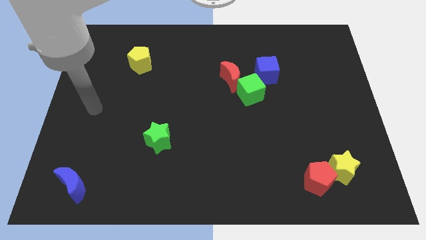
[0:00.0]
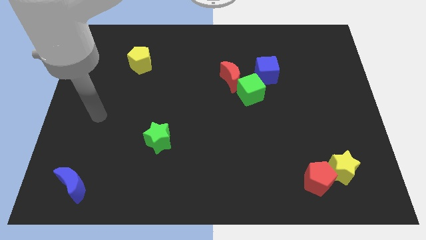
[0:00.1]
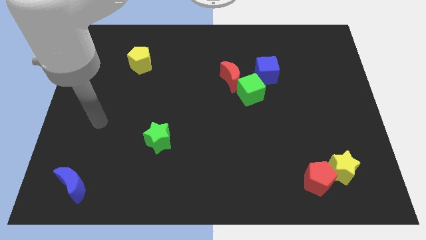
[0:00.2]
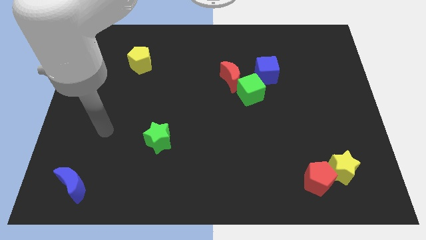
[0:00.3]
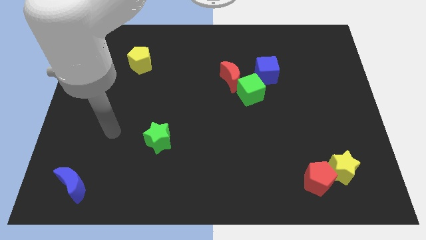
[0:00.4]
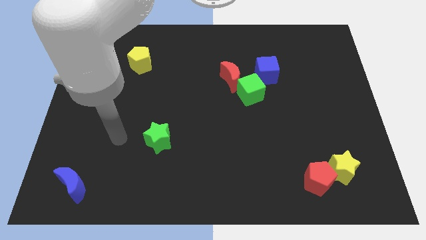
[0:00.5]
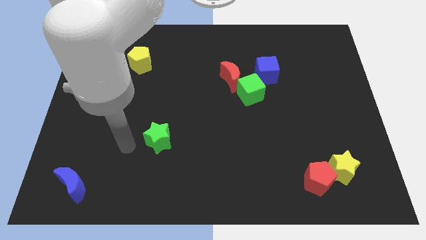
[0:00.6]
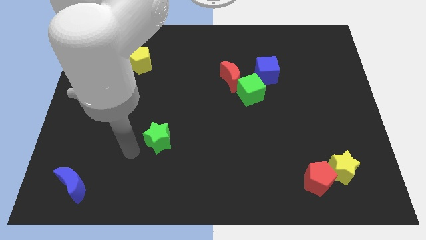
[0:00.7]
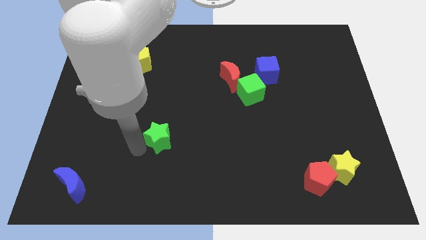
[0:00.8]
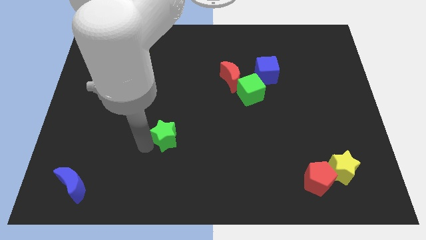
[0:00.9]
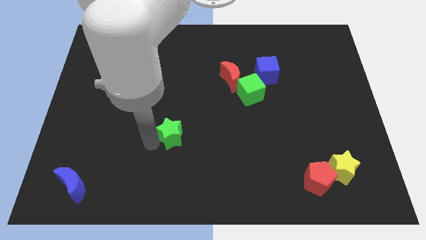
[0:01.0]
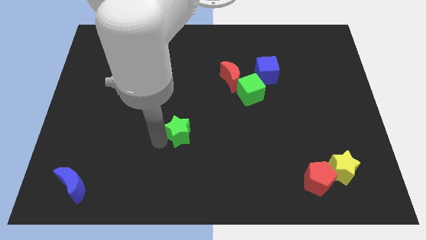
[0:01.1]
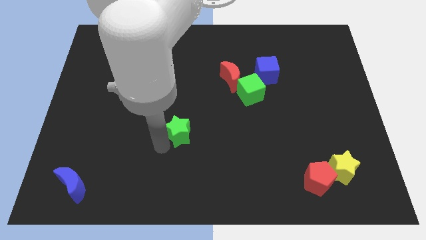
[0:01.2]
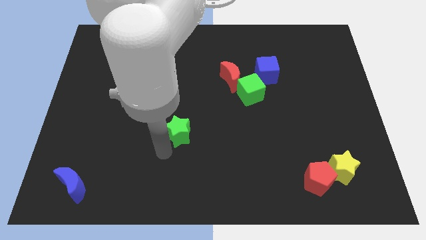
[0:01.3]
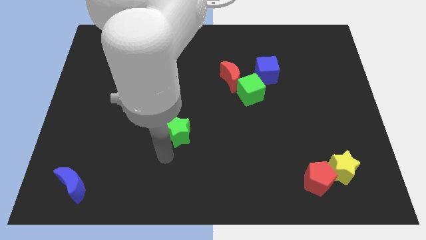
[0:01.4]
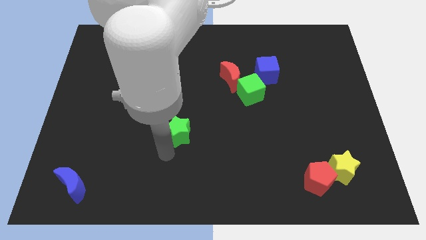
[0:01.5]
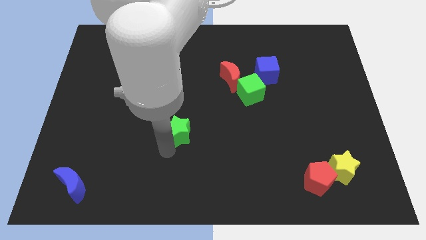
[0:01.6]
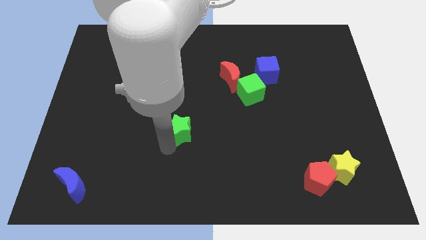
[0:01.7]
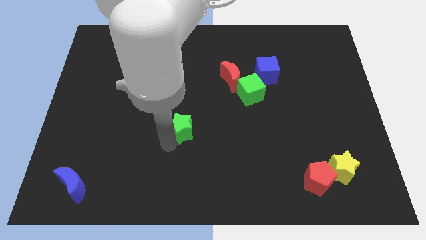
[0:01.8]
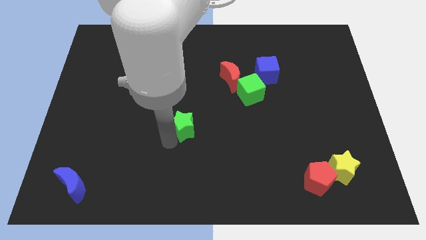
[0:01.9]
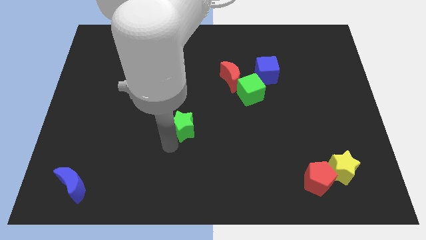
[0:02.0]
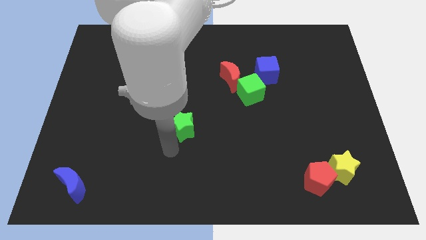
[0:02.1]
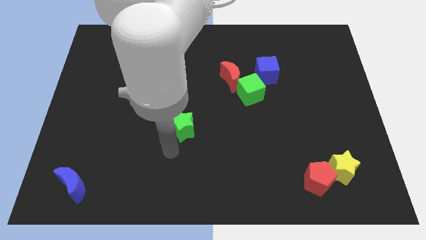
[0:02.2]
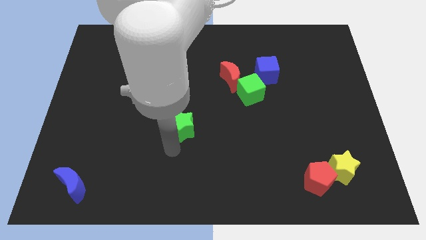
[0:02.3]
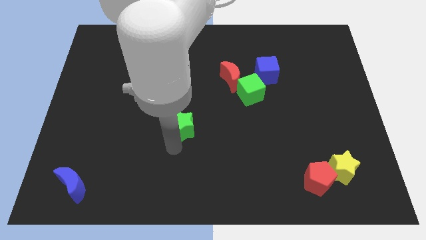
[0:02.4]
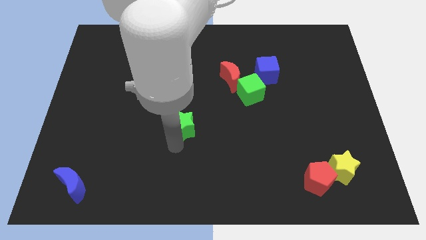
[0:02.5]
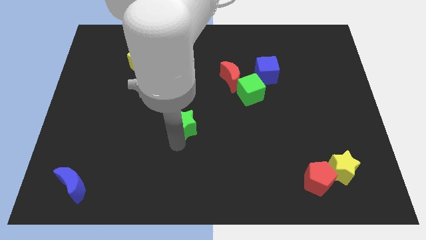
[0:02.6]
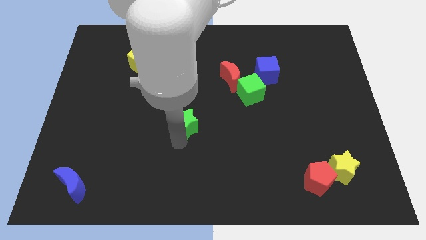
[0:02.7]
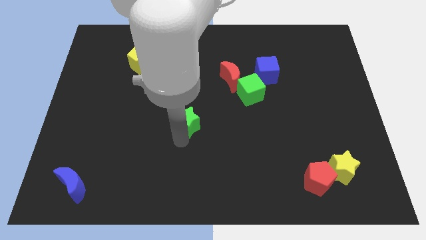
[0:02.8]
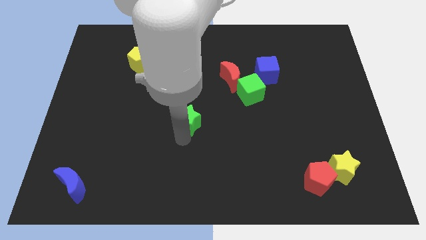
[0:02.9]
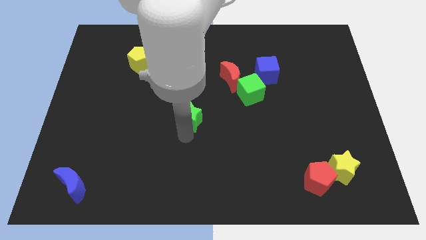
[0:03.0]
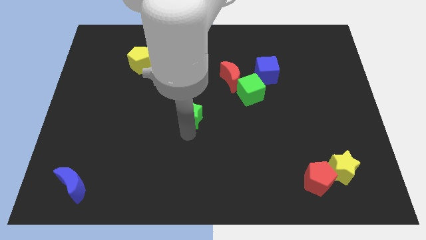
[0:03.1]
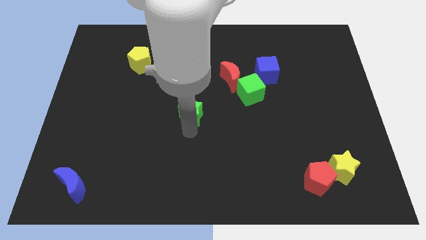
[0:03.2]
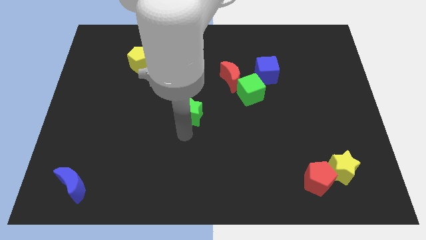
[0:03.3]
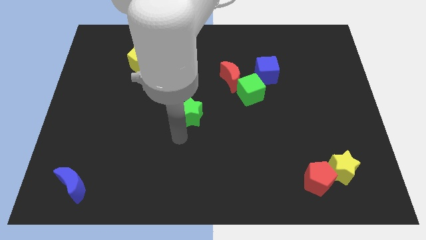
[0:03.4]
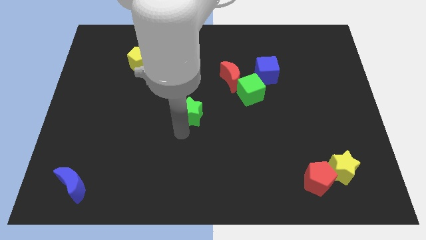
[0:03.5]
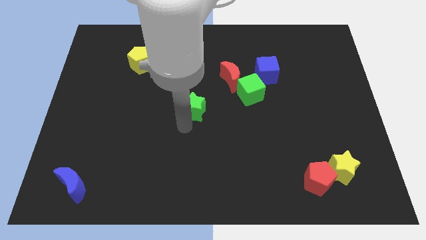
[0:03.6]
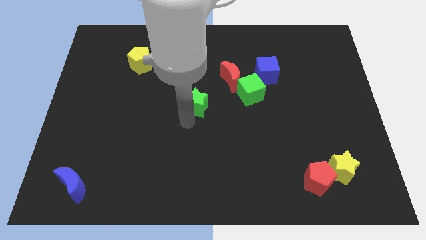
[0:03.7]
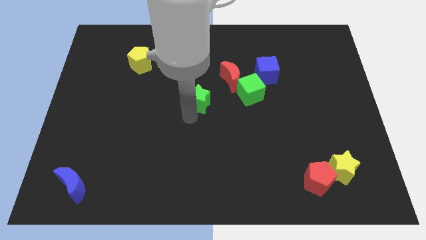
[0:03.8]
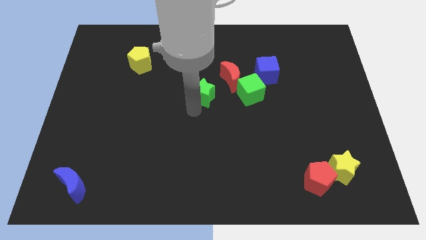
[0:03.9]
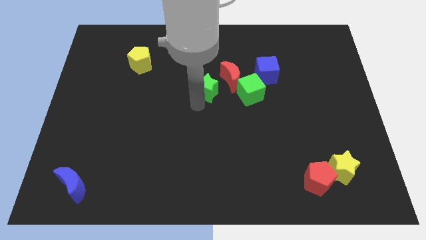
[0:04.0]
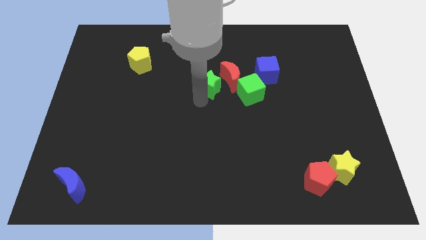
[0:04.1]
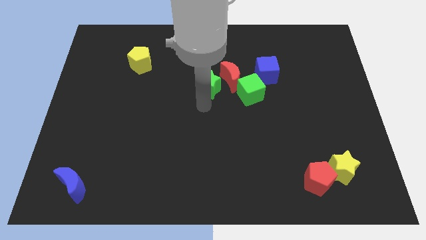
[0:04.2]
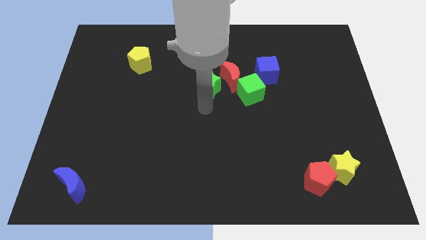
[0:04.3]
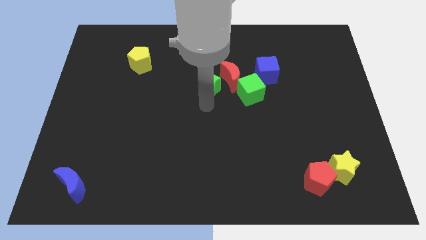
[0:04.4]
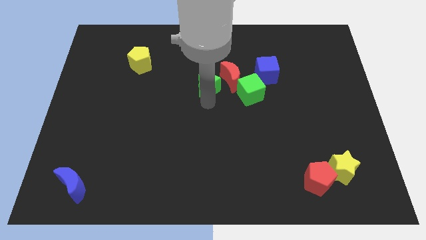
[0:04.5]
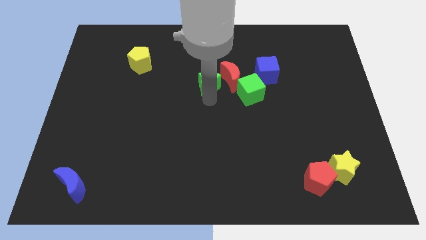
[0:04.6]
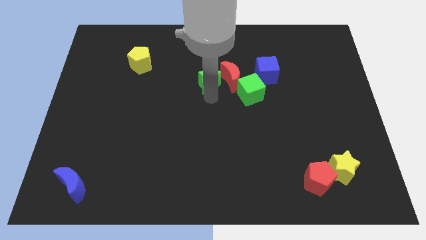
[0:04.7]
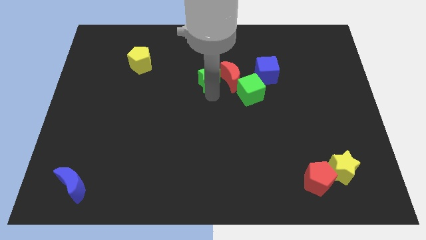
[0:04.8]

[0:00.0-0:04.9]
put the green star diagonally up and to the left of the red moon

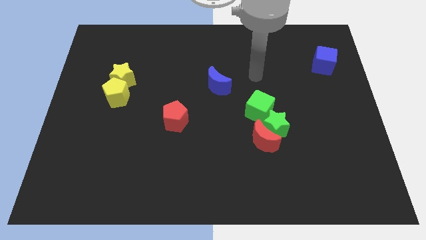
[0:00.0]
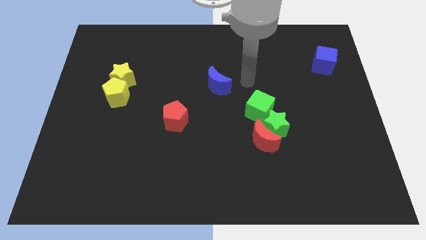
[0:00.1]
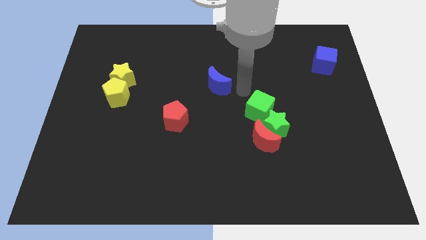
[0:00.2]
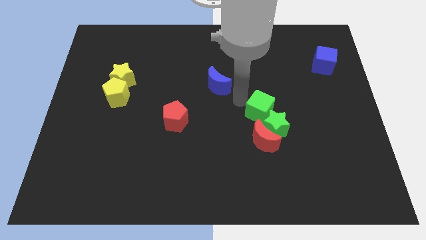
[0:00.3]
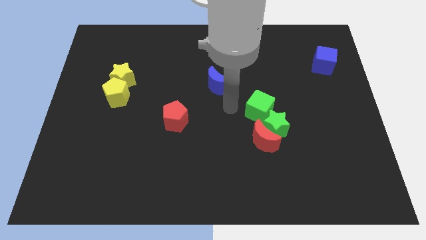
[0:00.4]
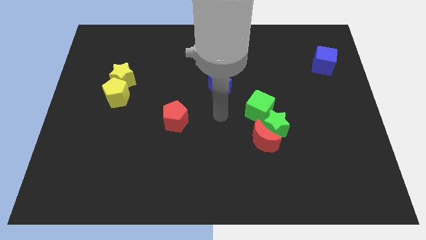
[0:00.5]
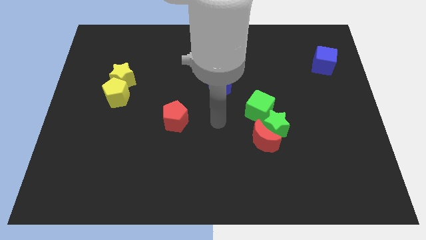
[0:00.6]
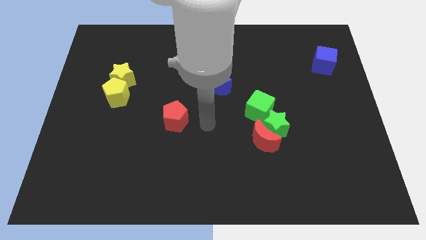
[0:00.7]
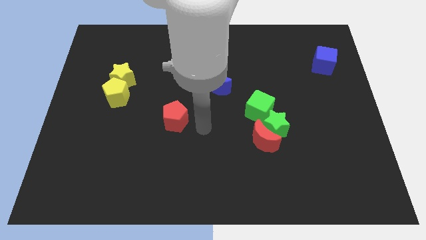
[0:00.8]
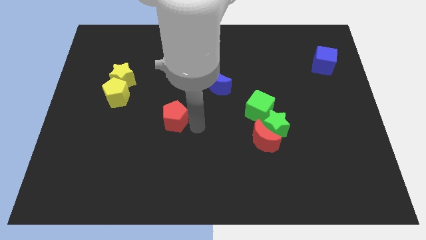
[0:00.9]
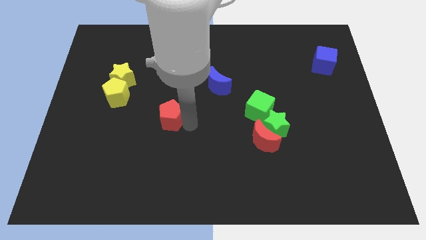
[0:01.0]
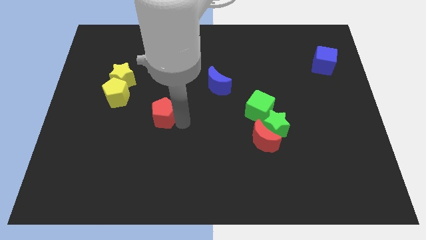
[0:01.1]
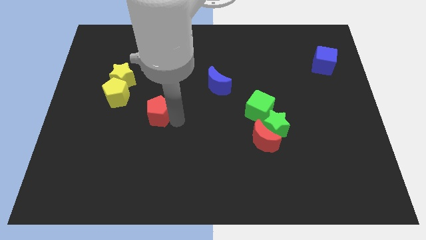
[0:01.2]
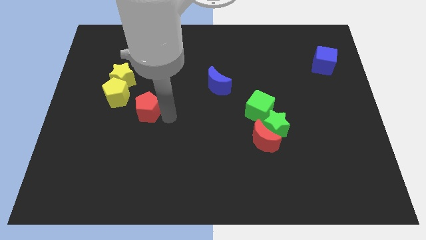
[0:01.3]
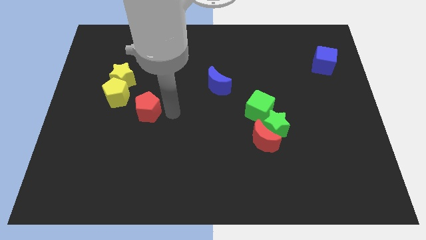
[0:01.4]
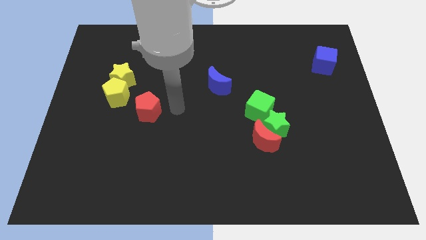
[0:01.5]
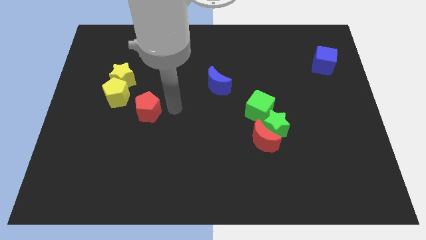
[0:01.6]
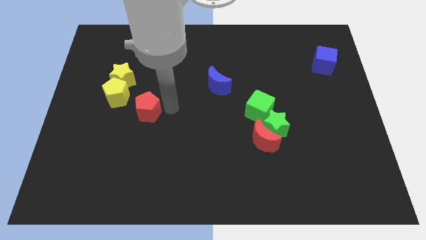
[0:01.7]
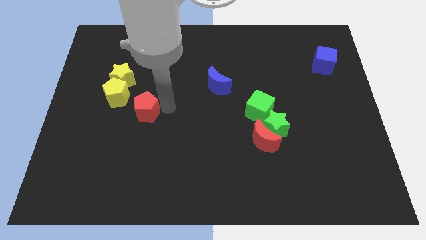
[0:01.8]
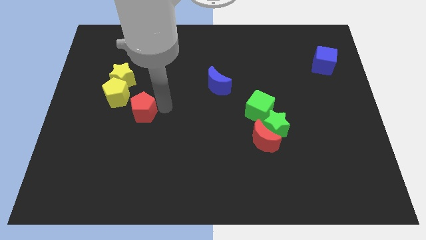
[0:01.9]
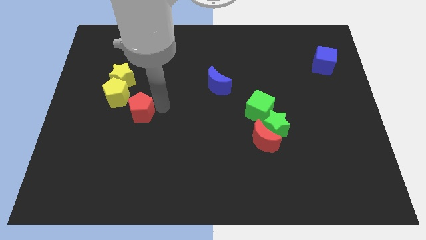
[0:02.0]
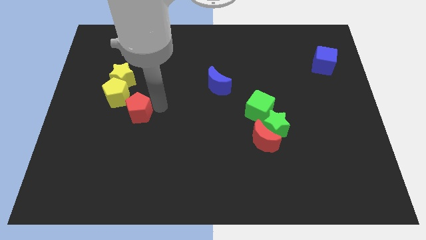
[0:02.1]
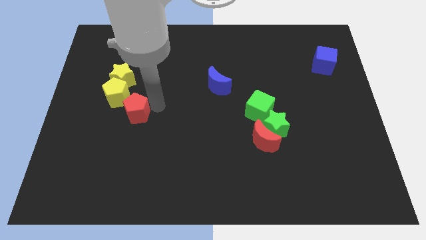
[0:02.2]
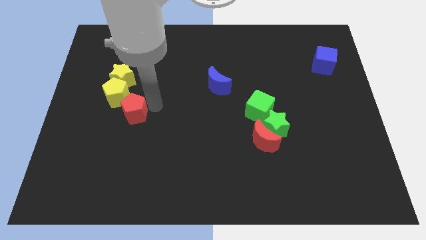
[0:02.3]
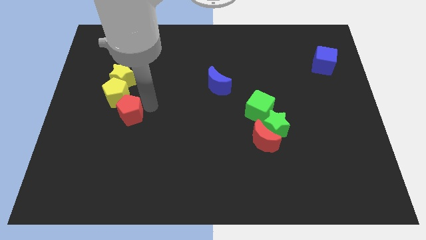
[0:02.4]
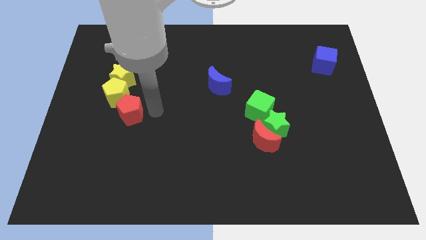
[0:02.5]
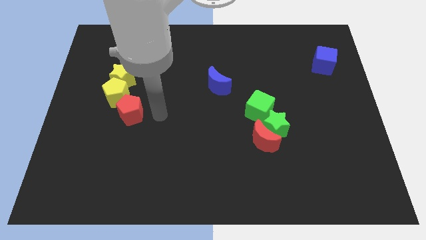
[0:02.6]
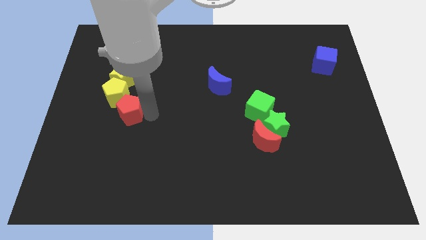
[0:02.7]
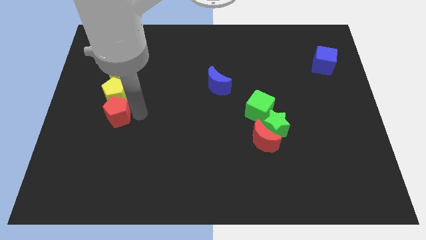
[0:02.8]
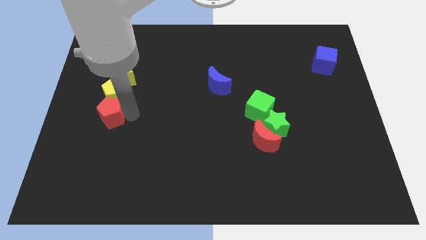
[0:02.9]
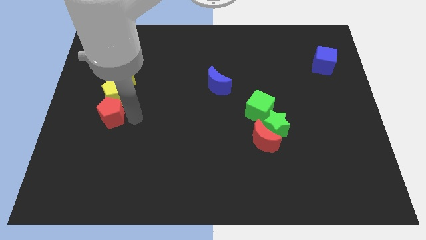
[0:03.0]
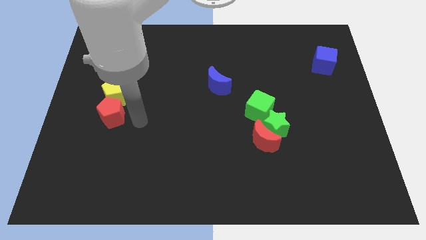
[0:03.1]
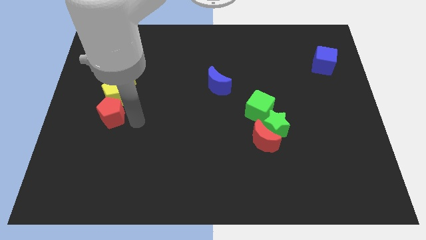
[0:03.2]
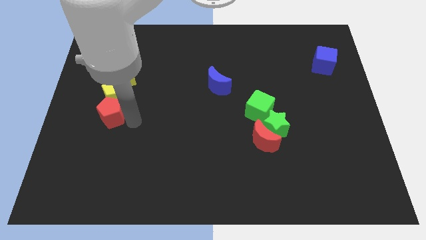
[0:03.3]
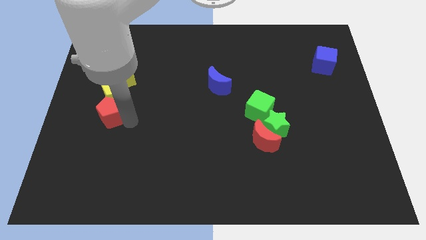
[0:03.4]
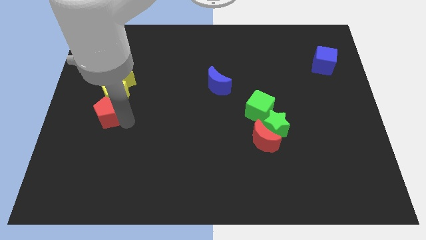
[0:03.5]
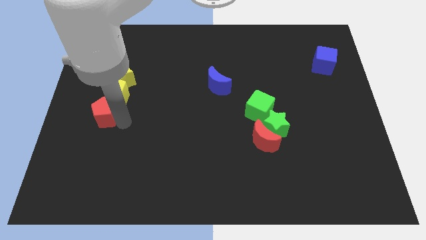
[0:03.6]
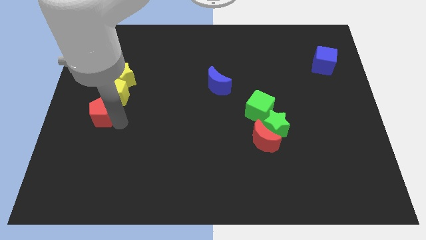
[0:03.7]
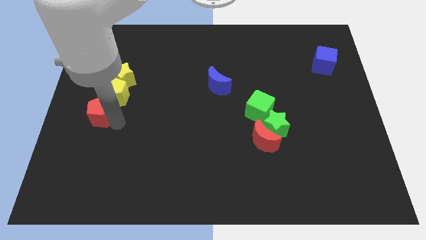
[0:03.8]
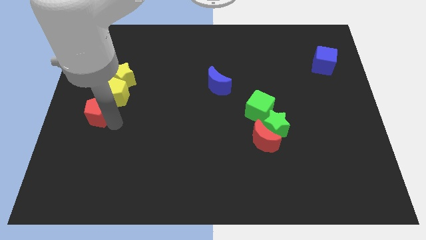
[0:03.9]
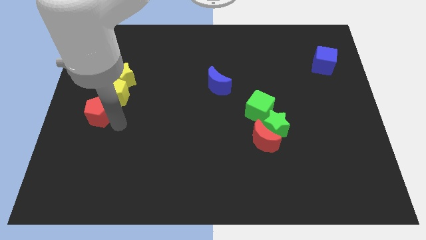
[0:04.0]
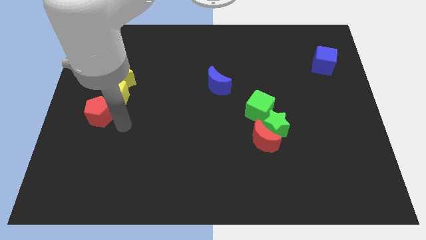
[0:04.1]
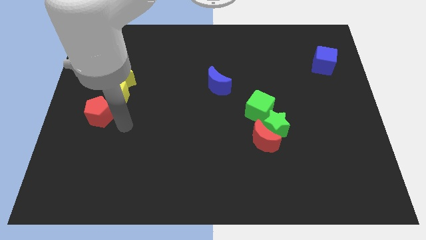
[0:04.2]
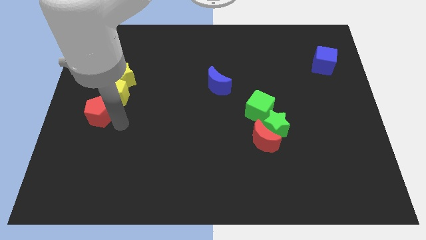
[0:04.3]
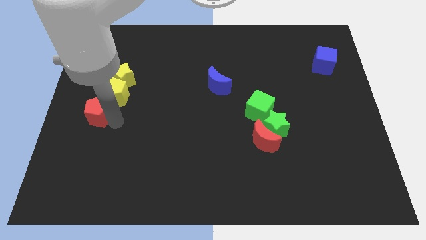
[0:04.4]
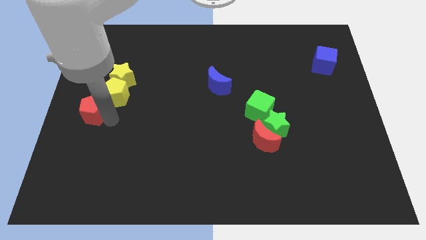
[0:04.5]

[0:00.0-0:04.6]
slide the red pentagon to the bottom left of the yellow star
